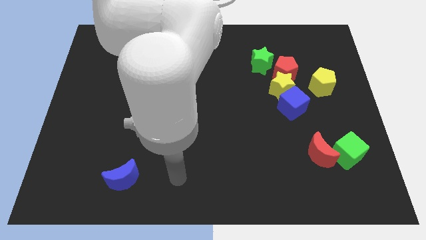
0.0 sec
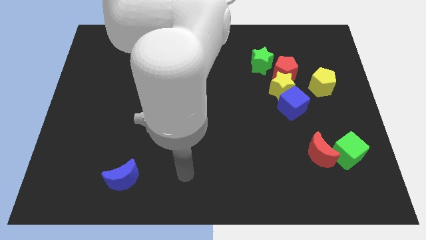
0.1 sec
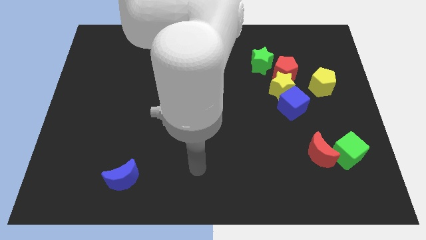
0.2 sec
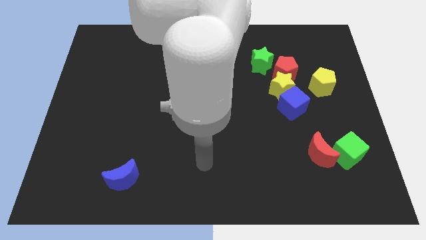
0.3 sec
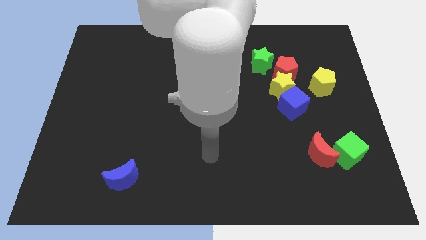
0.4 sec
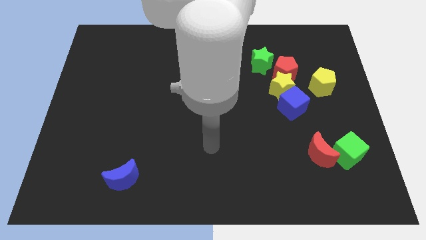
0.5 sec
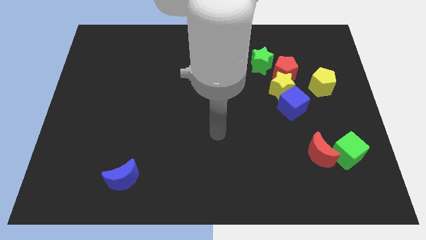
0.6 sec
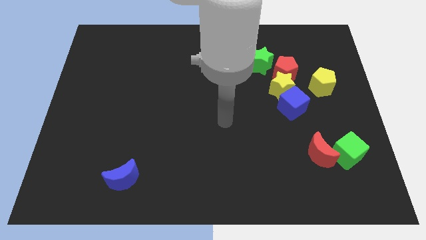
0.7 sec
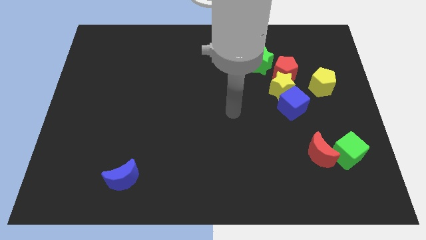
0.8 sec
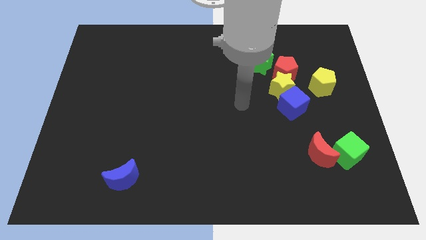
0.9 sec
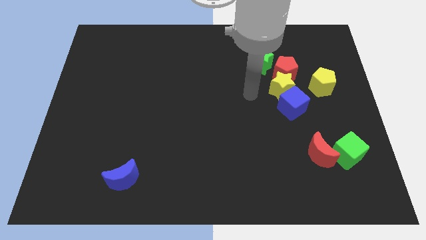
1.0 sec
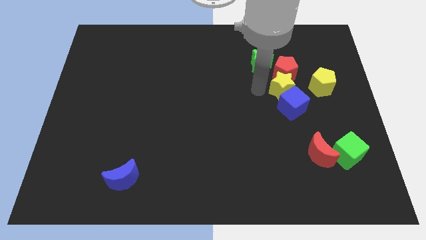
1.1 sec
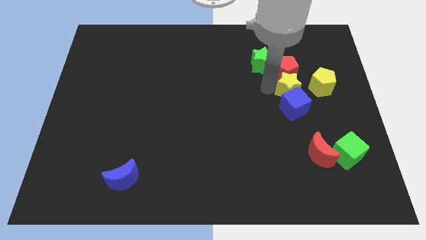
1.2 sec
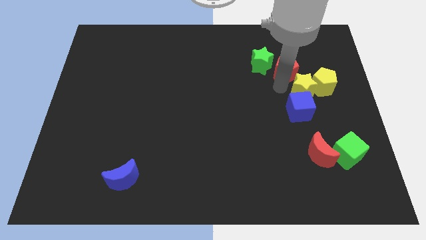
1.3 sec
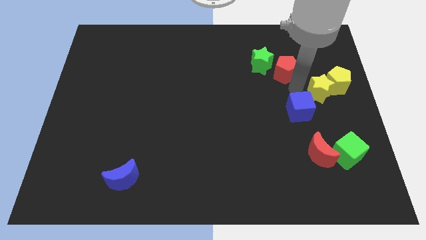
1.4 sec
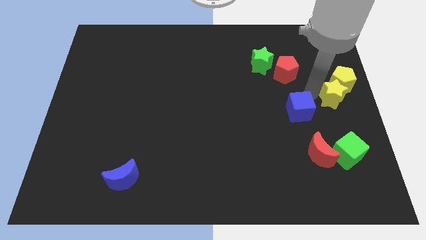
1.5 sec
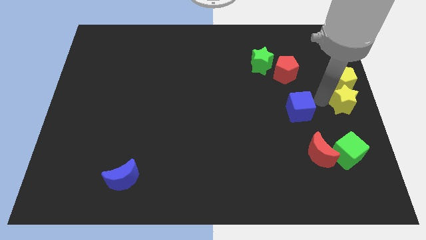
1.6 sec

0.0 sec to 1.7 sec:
separate the blue cube from the yellow star

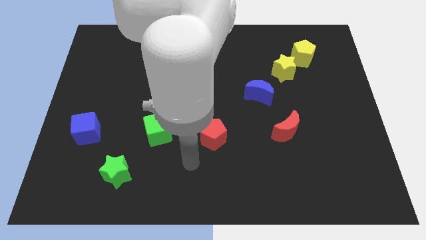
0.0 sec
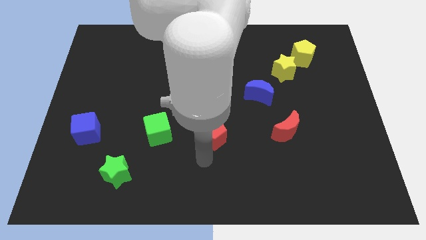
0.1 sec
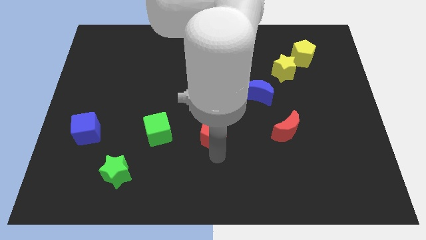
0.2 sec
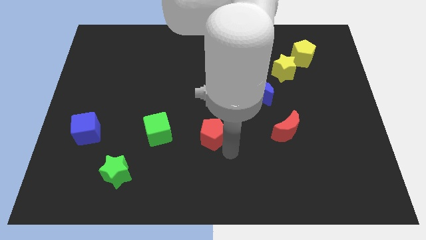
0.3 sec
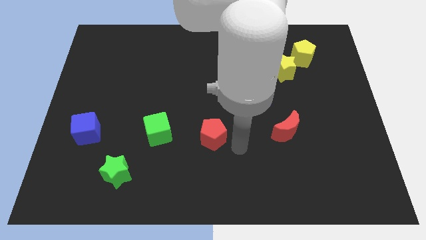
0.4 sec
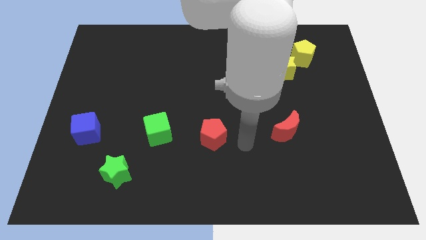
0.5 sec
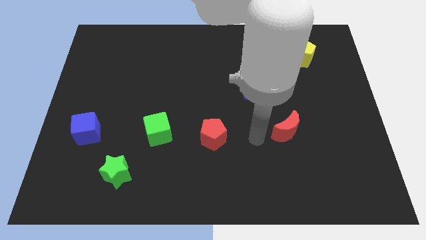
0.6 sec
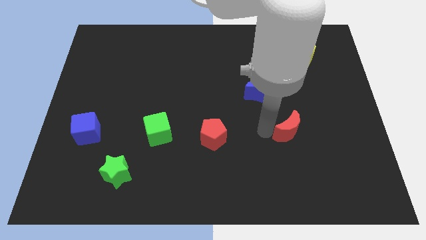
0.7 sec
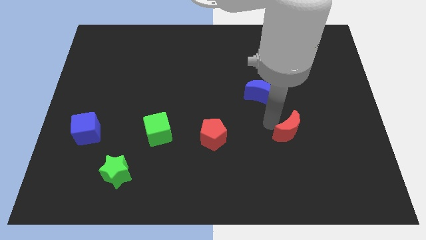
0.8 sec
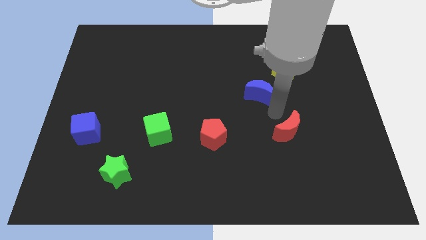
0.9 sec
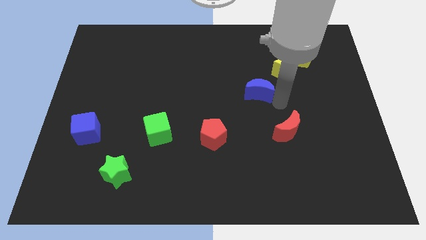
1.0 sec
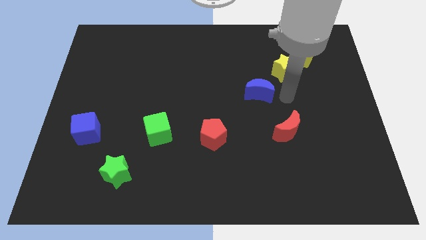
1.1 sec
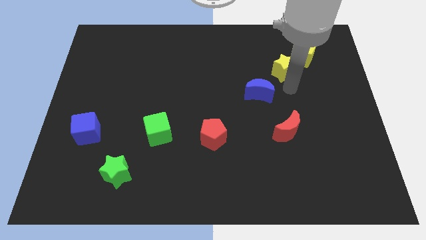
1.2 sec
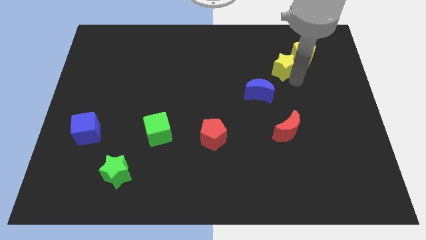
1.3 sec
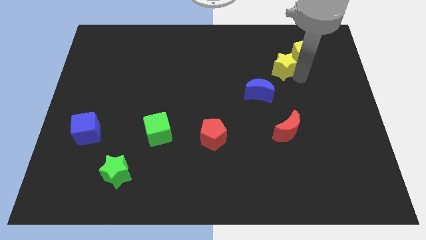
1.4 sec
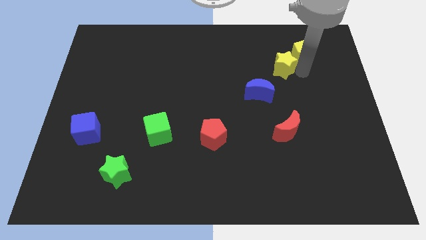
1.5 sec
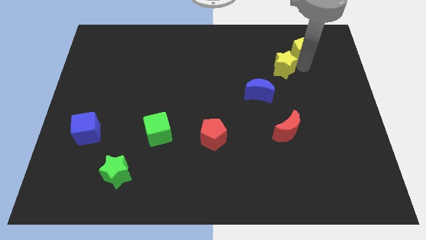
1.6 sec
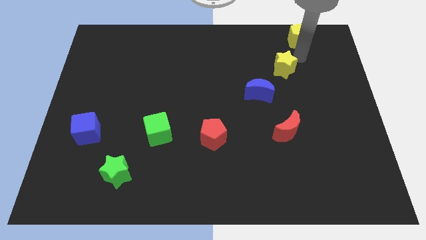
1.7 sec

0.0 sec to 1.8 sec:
pull the yellow star apart from the yellow pentagon

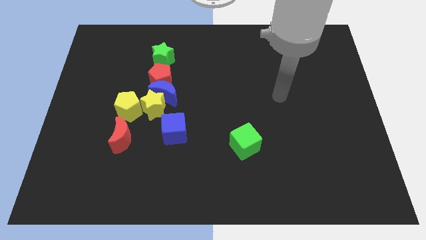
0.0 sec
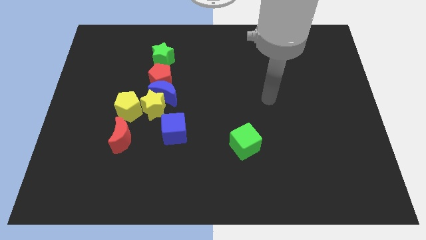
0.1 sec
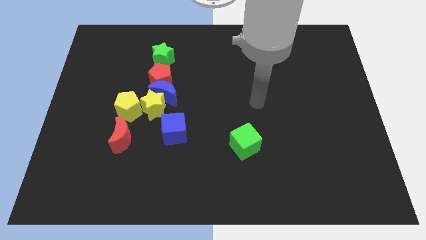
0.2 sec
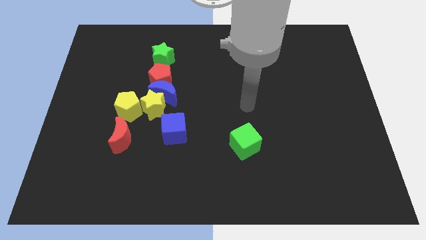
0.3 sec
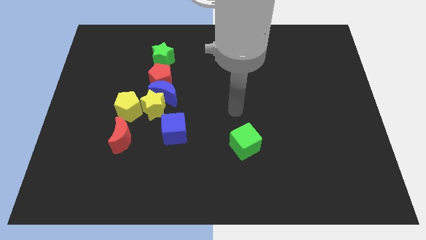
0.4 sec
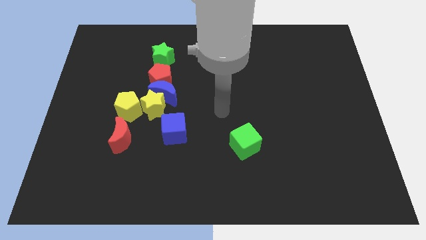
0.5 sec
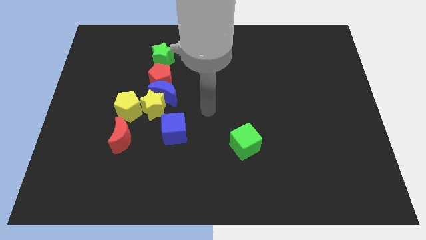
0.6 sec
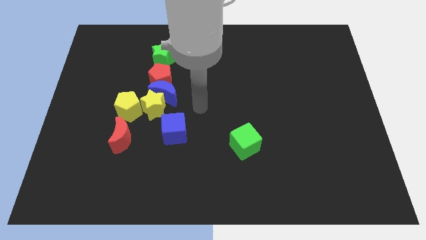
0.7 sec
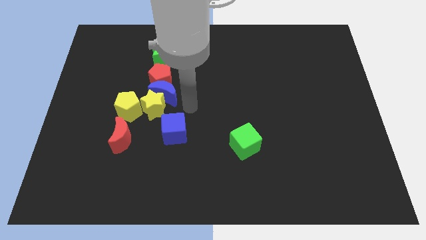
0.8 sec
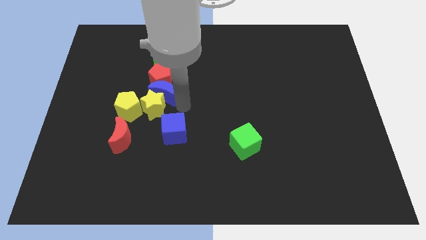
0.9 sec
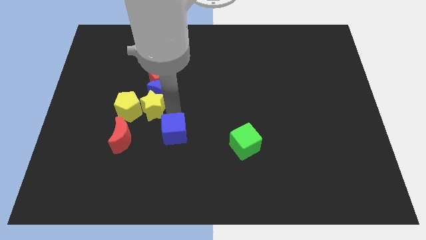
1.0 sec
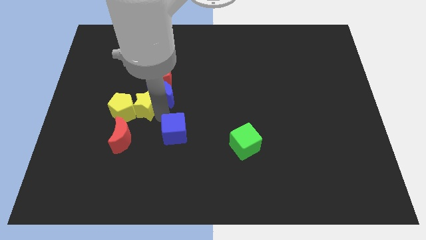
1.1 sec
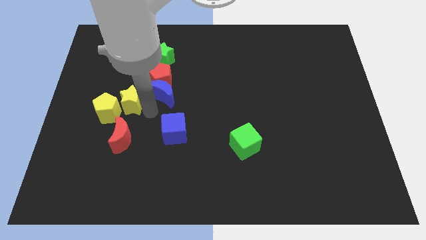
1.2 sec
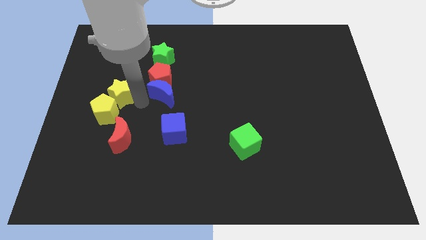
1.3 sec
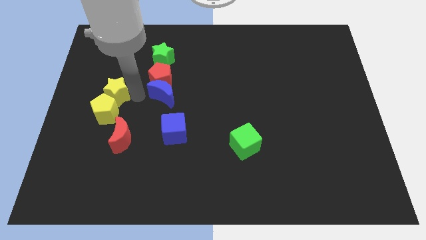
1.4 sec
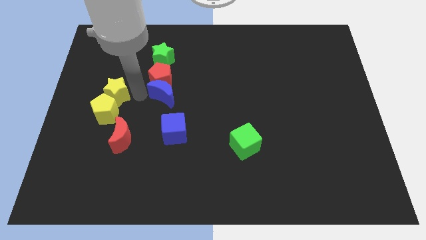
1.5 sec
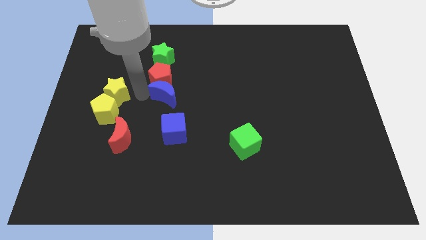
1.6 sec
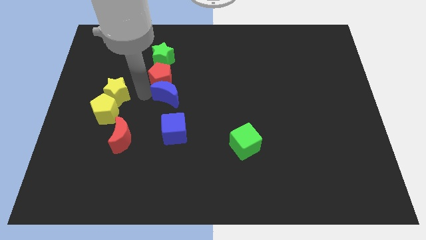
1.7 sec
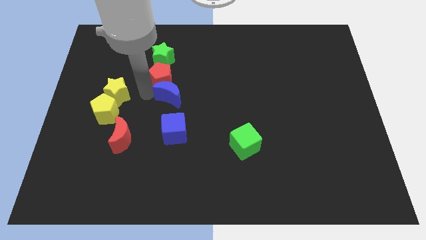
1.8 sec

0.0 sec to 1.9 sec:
pull the blue moon apart from the group of blocks

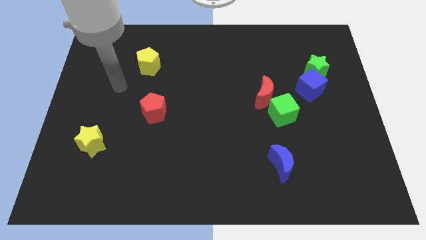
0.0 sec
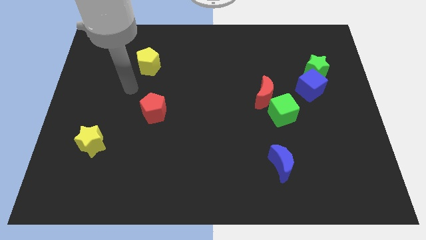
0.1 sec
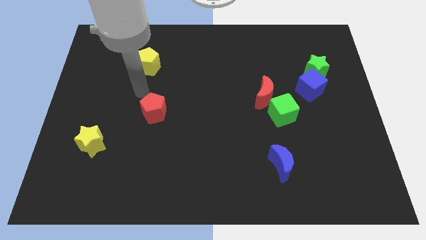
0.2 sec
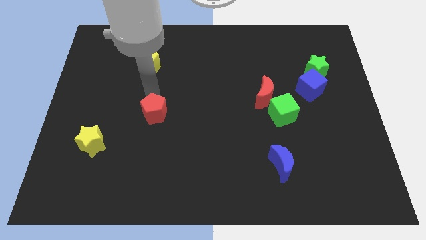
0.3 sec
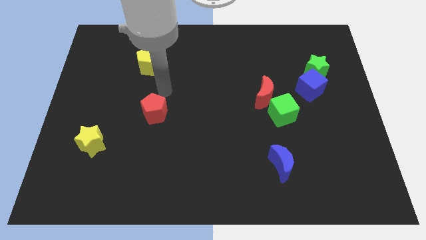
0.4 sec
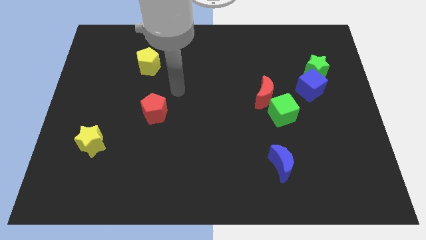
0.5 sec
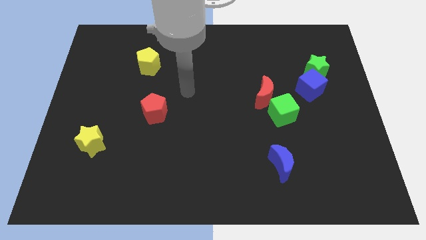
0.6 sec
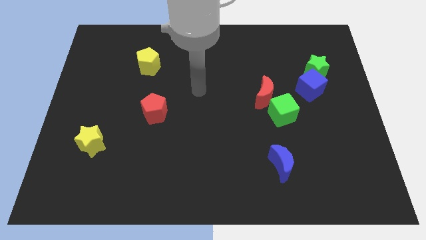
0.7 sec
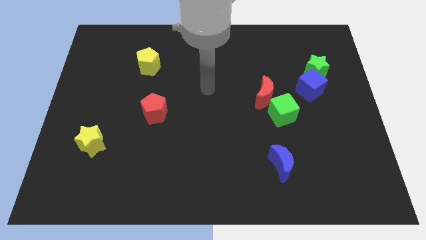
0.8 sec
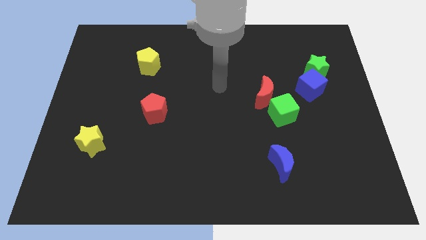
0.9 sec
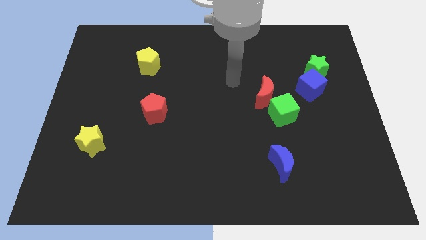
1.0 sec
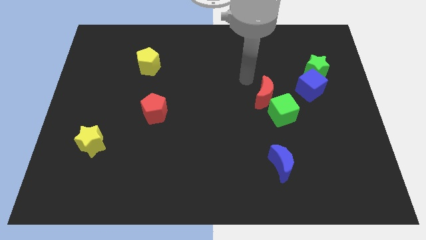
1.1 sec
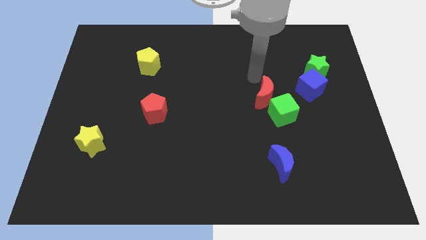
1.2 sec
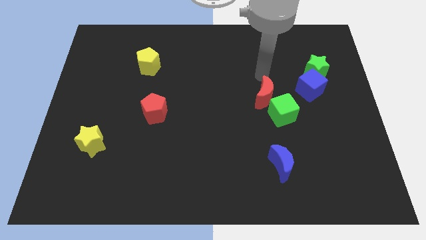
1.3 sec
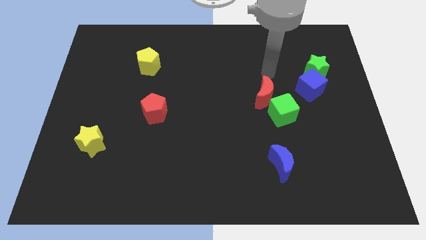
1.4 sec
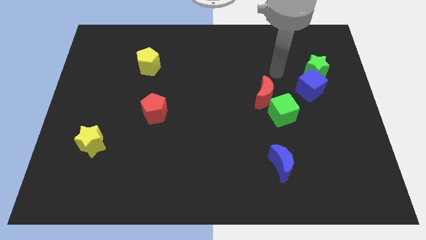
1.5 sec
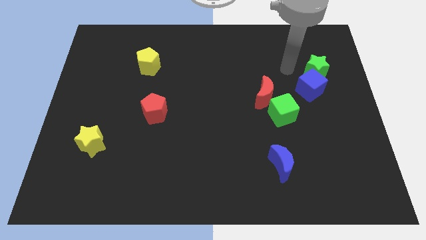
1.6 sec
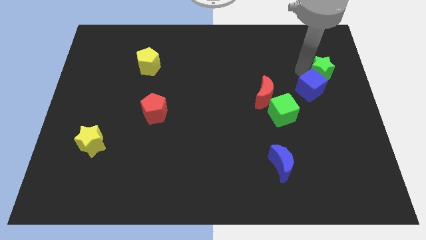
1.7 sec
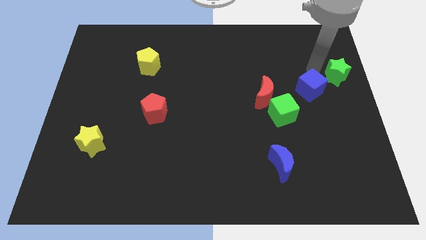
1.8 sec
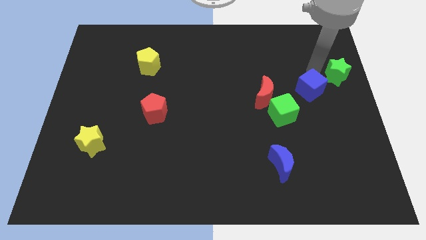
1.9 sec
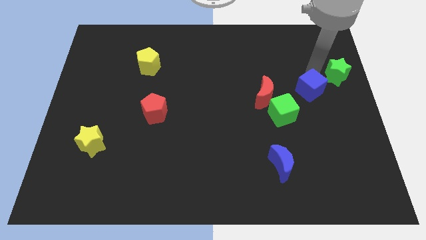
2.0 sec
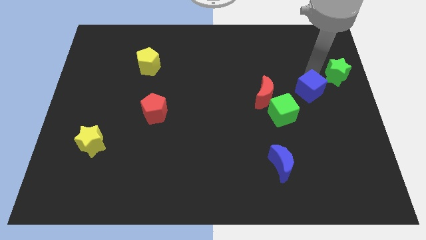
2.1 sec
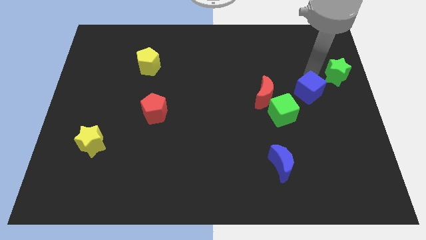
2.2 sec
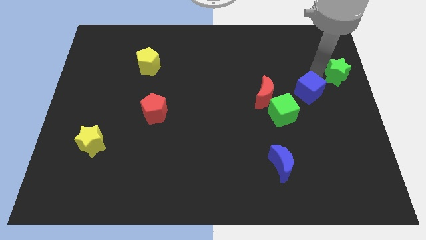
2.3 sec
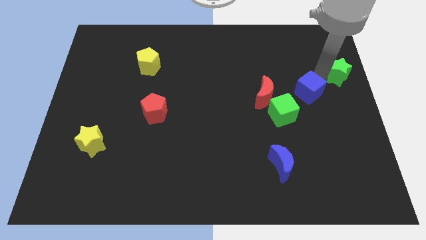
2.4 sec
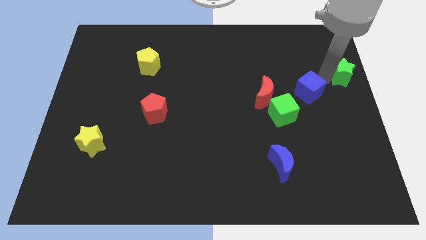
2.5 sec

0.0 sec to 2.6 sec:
separate the blue cube from the green star

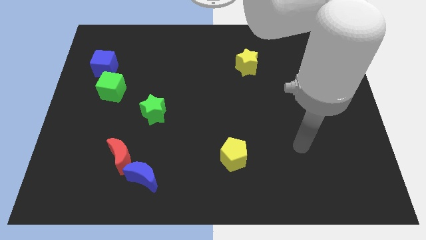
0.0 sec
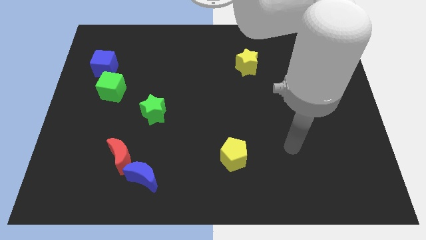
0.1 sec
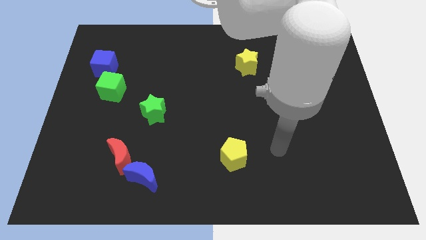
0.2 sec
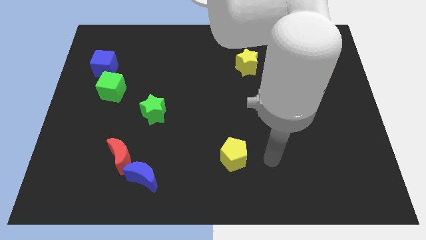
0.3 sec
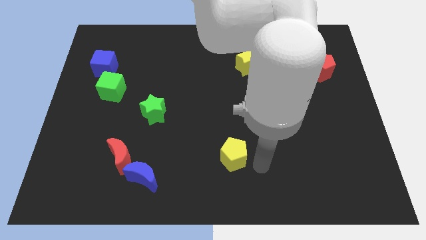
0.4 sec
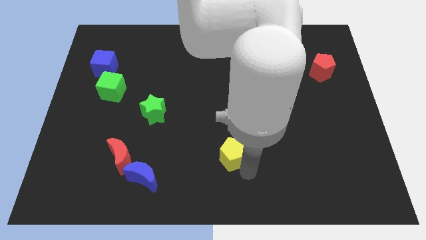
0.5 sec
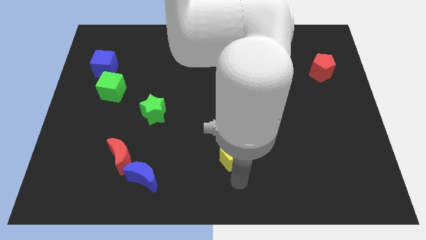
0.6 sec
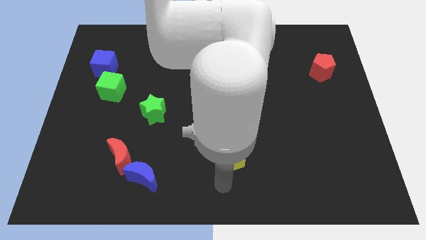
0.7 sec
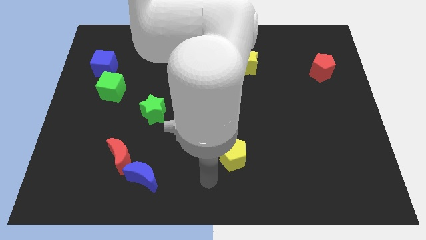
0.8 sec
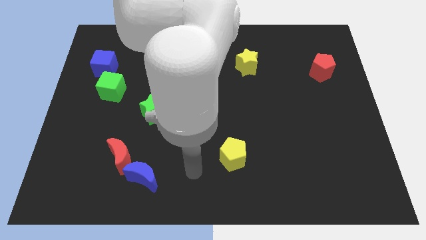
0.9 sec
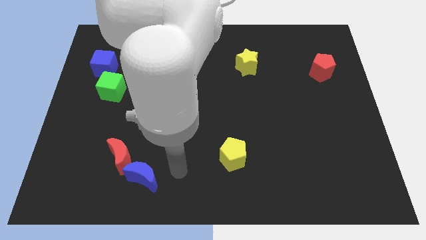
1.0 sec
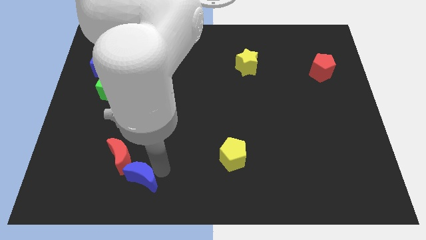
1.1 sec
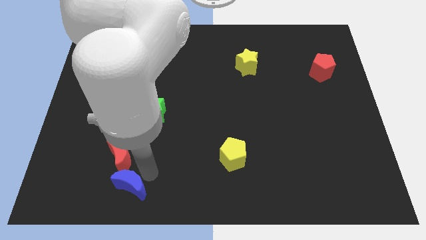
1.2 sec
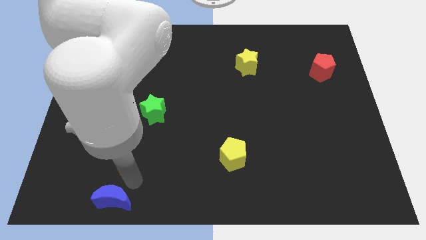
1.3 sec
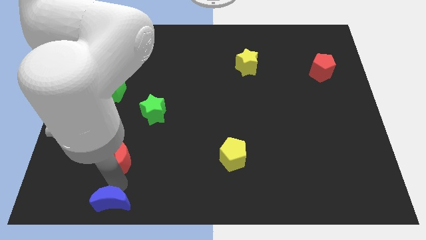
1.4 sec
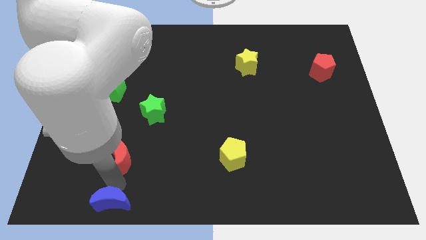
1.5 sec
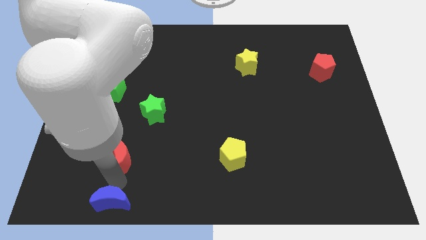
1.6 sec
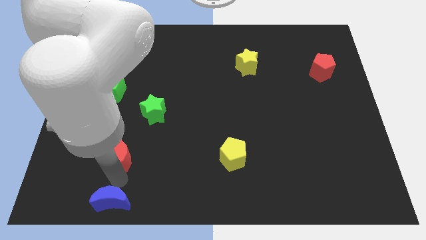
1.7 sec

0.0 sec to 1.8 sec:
separate the red moon from the blue moon
